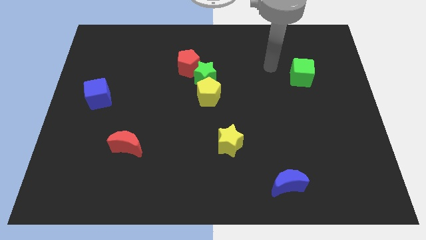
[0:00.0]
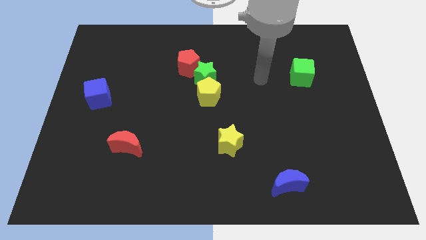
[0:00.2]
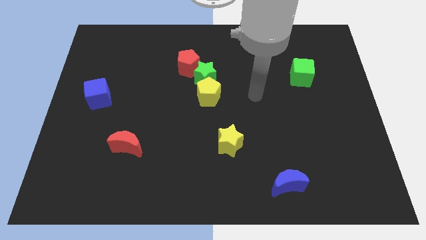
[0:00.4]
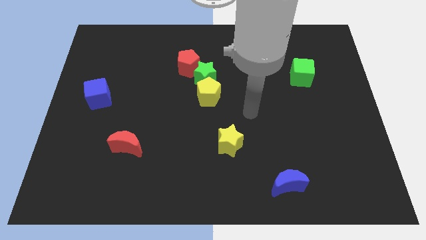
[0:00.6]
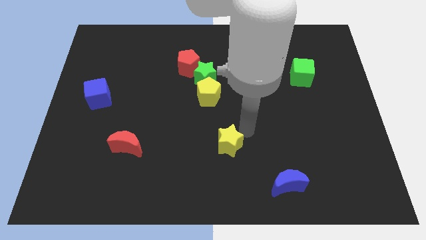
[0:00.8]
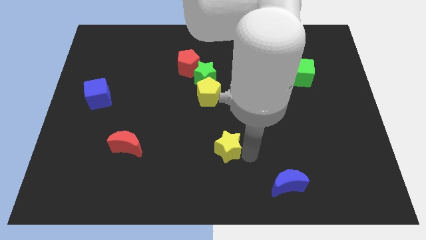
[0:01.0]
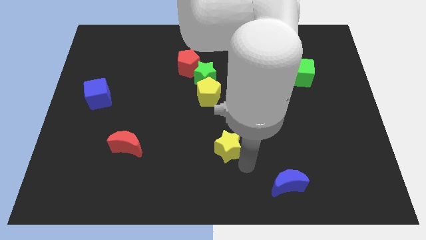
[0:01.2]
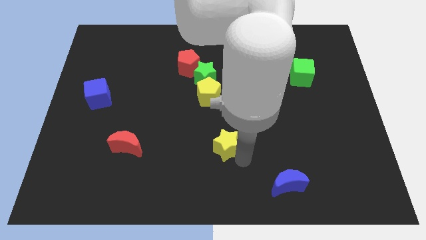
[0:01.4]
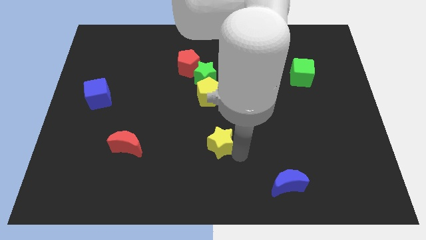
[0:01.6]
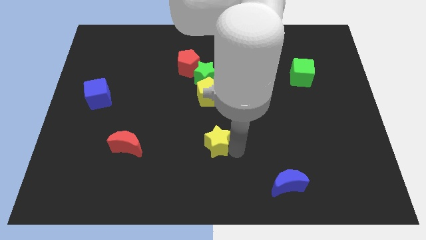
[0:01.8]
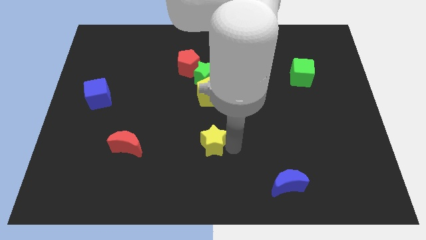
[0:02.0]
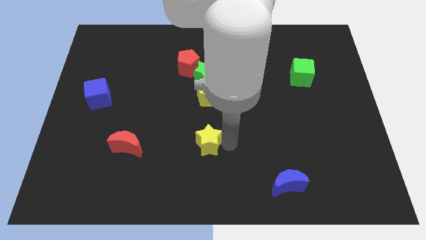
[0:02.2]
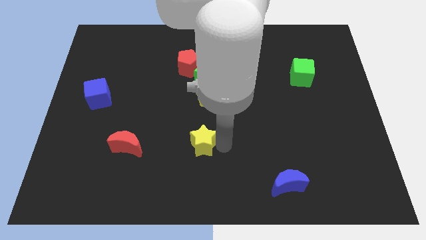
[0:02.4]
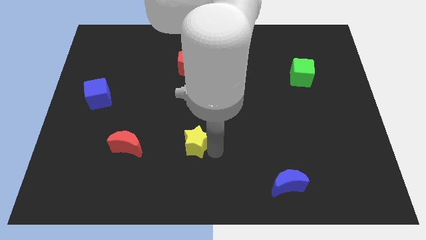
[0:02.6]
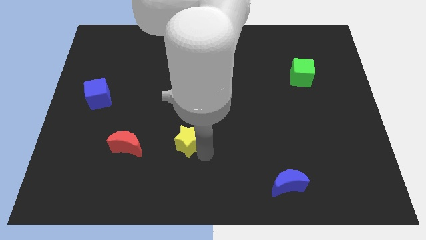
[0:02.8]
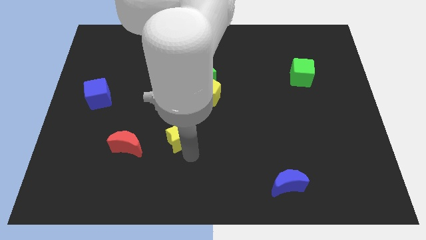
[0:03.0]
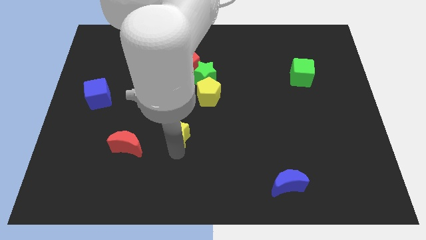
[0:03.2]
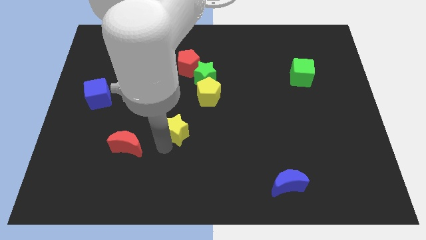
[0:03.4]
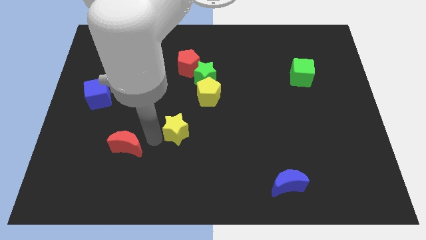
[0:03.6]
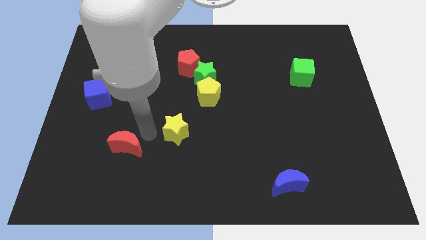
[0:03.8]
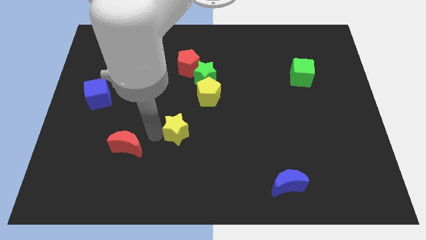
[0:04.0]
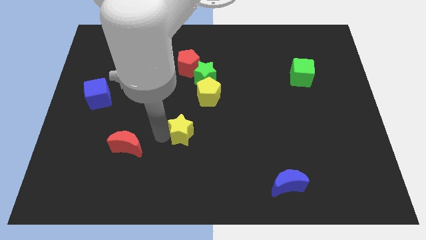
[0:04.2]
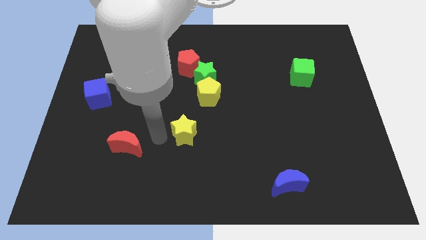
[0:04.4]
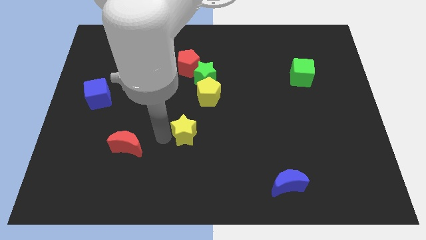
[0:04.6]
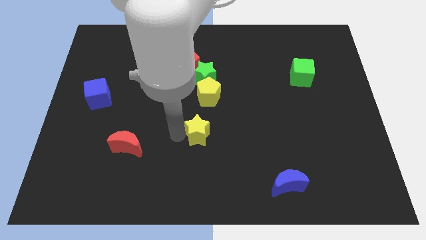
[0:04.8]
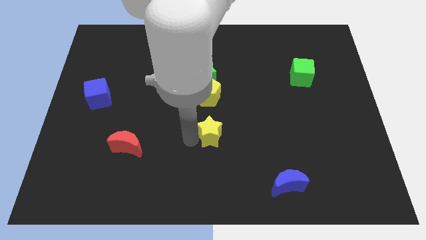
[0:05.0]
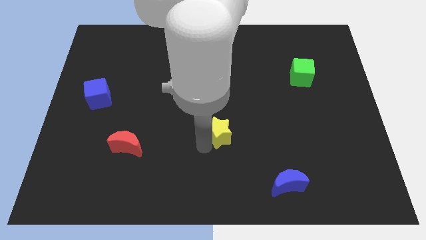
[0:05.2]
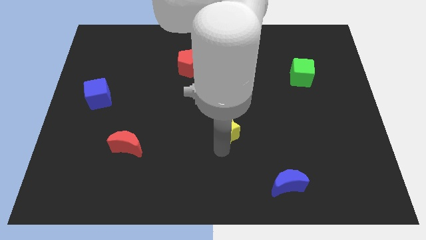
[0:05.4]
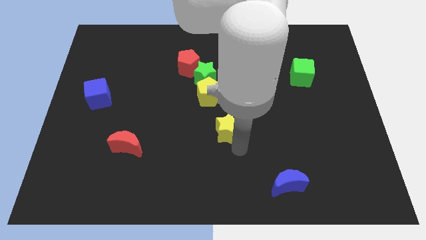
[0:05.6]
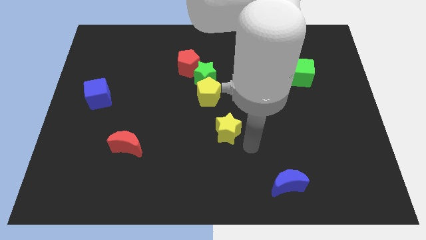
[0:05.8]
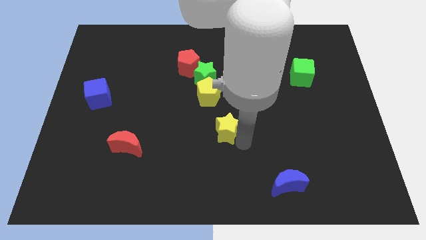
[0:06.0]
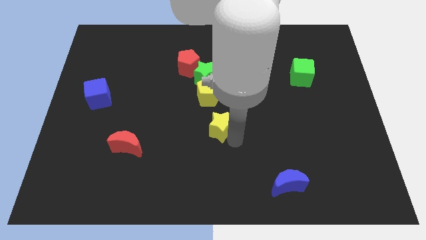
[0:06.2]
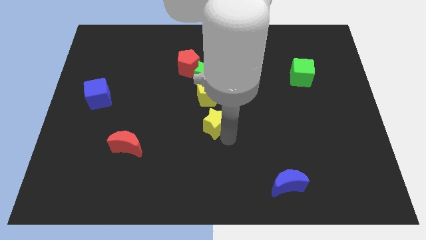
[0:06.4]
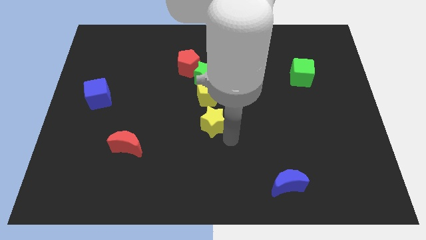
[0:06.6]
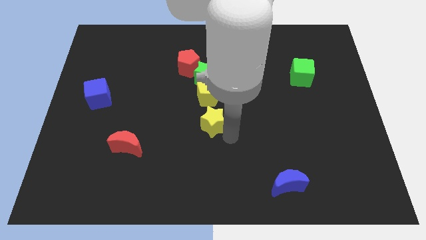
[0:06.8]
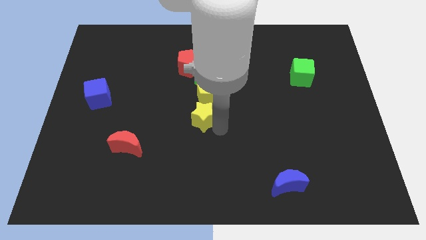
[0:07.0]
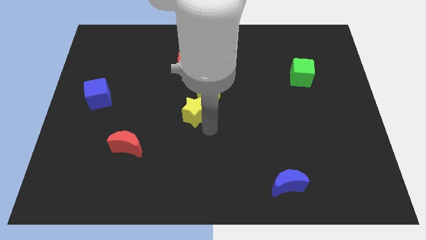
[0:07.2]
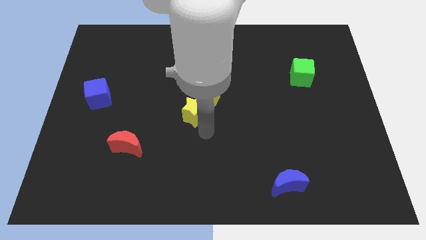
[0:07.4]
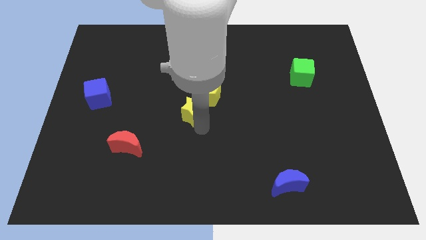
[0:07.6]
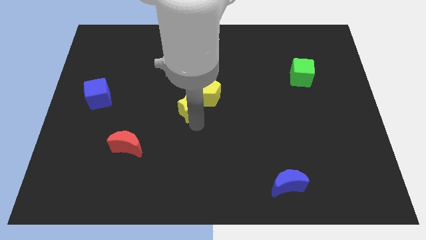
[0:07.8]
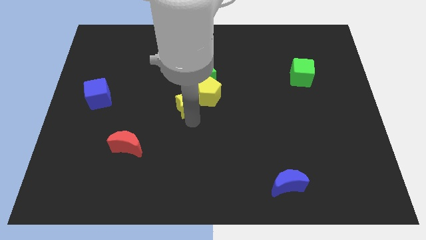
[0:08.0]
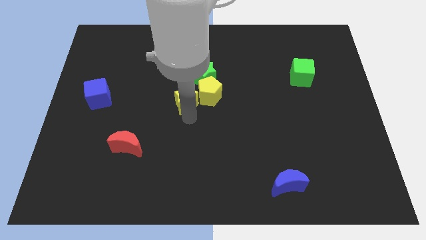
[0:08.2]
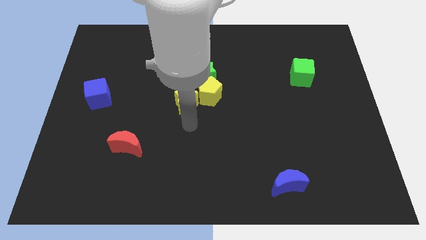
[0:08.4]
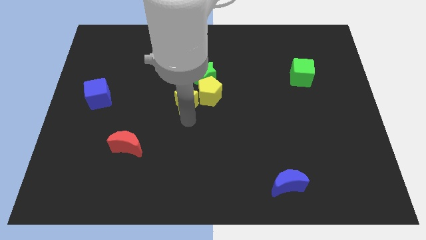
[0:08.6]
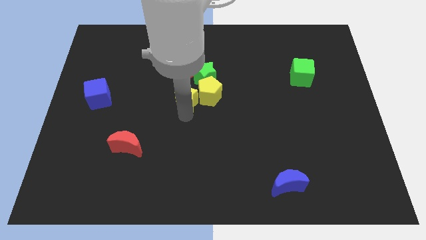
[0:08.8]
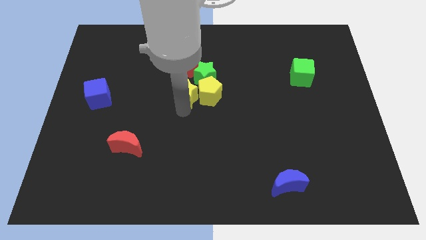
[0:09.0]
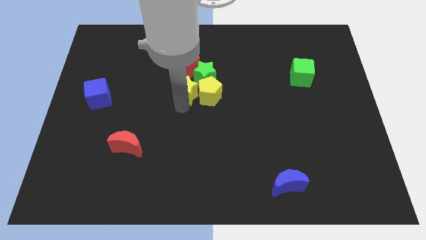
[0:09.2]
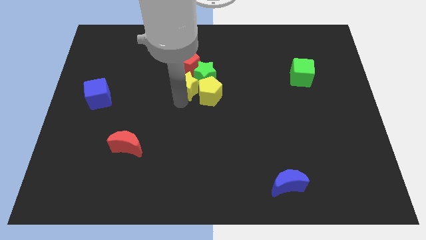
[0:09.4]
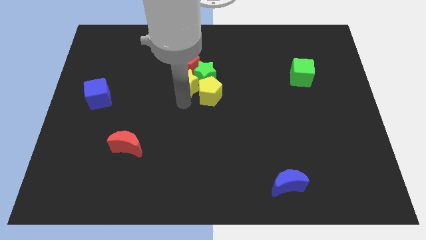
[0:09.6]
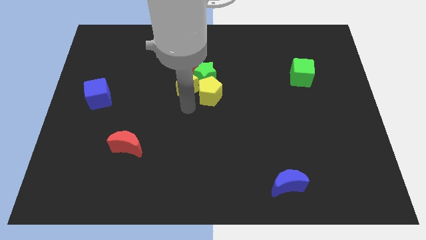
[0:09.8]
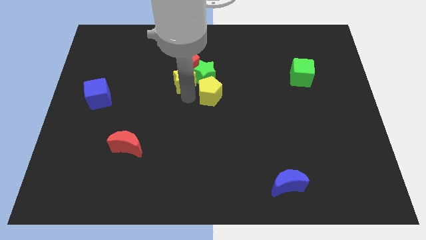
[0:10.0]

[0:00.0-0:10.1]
push the yellow star next to the red pentagon

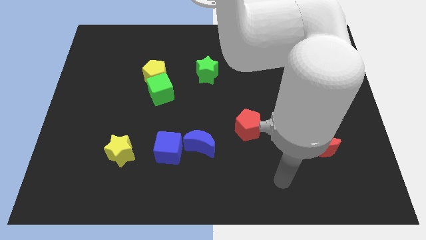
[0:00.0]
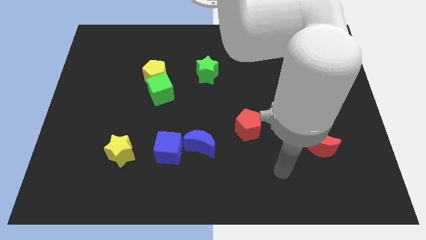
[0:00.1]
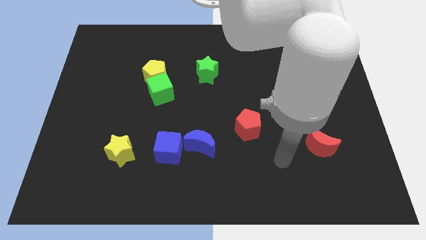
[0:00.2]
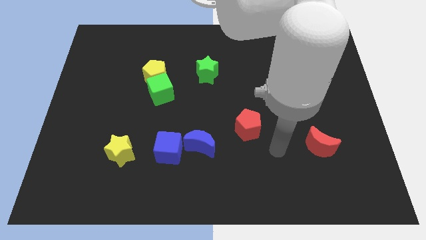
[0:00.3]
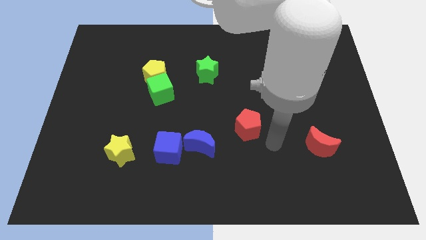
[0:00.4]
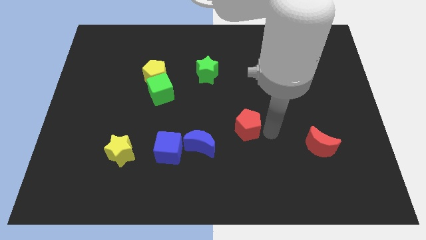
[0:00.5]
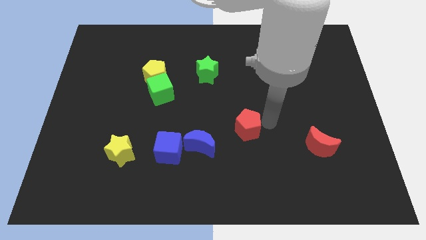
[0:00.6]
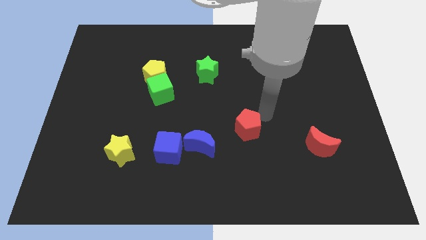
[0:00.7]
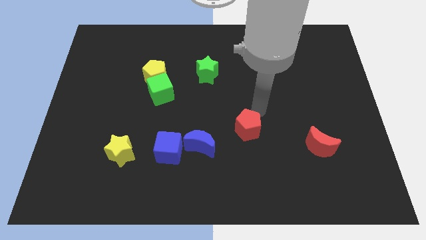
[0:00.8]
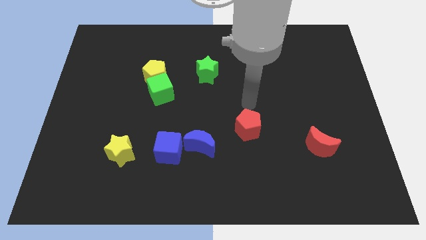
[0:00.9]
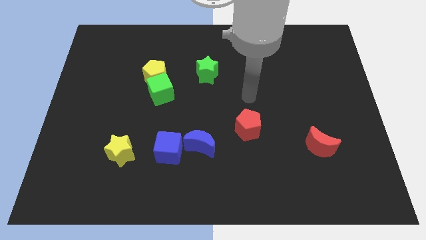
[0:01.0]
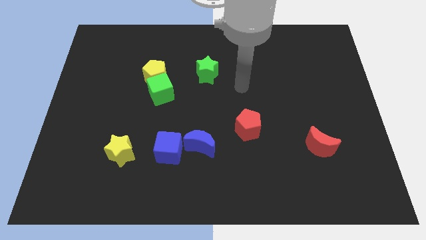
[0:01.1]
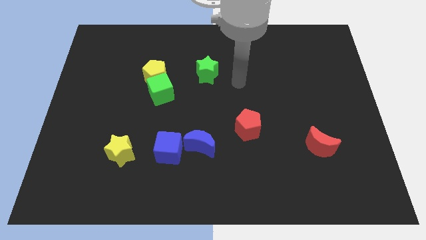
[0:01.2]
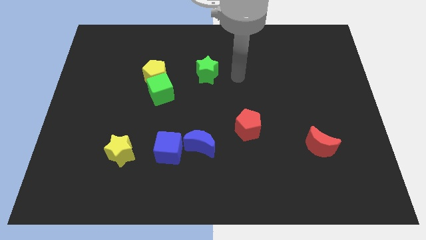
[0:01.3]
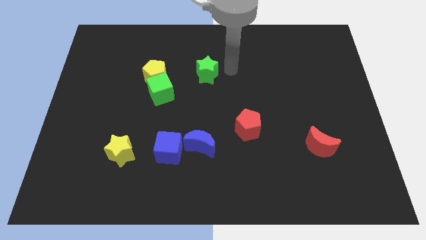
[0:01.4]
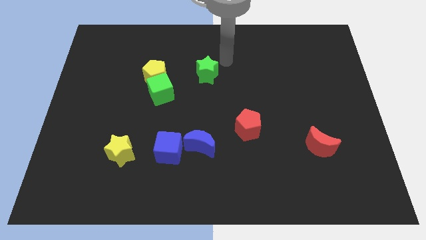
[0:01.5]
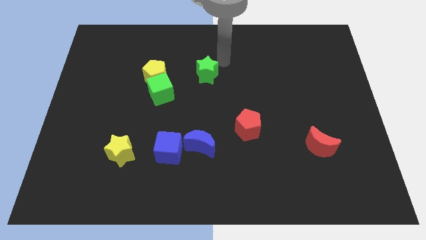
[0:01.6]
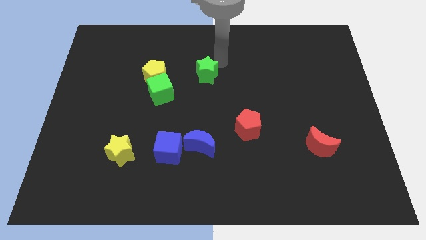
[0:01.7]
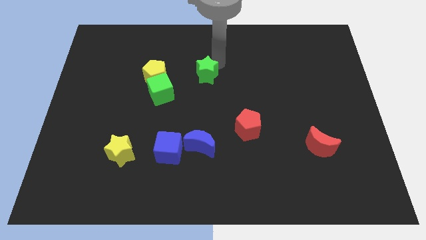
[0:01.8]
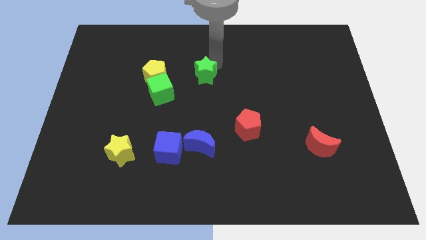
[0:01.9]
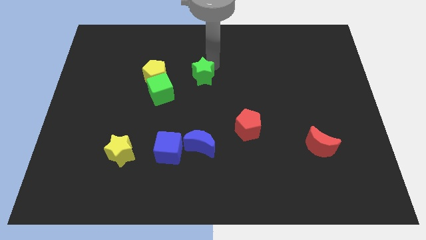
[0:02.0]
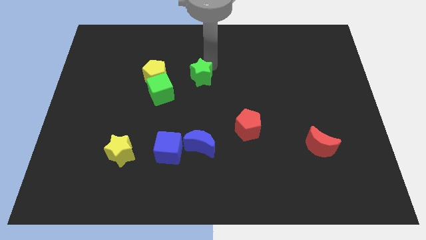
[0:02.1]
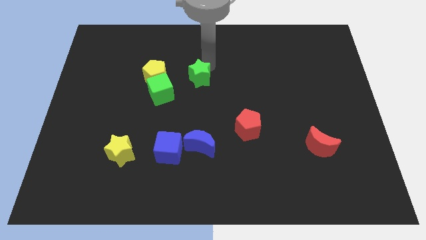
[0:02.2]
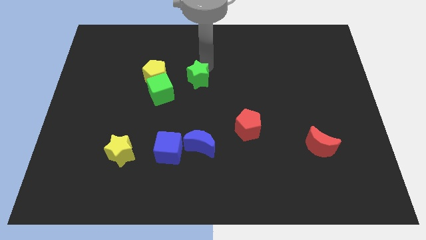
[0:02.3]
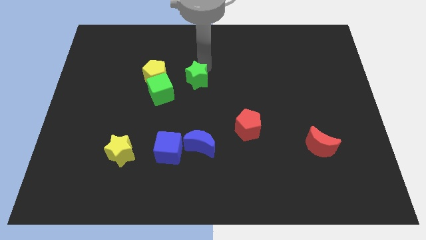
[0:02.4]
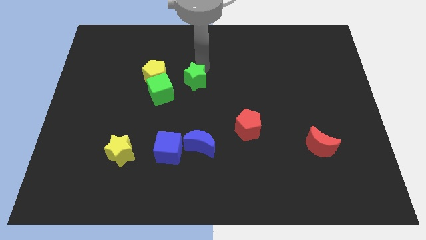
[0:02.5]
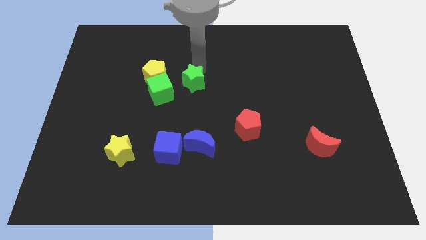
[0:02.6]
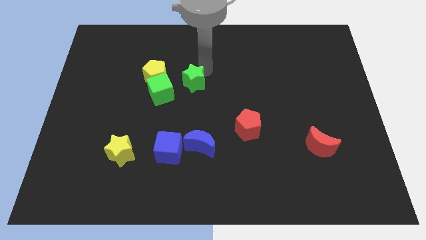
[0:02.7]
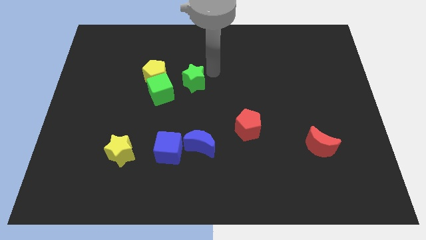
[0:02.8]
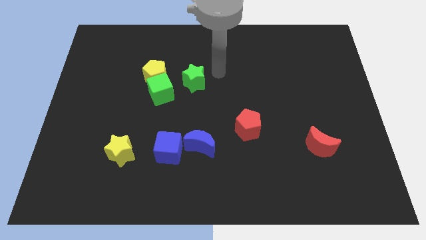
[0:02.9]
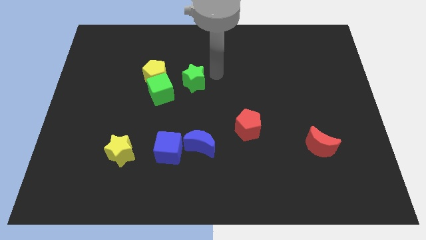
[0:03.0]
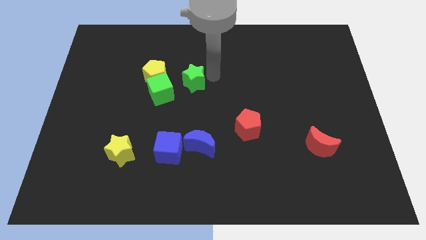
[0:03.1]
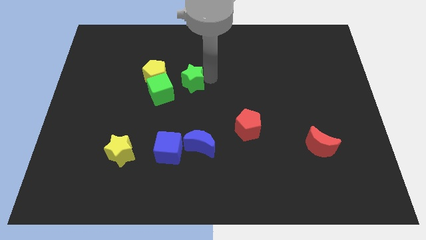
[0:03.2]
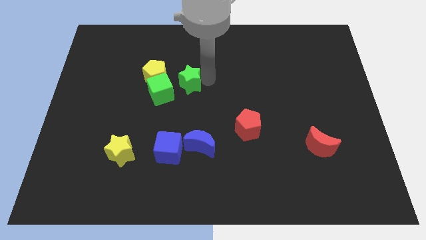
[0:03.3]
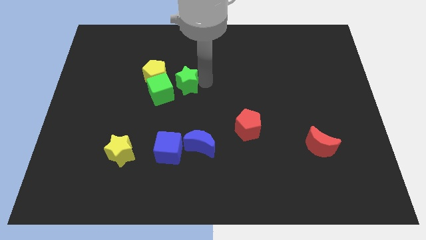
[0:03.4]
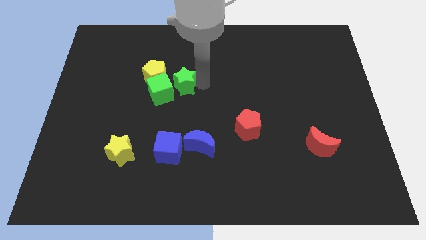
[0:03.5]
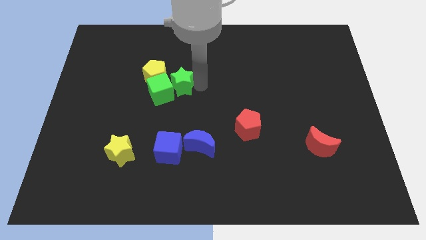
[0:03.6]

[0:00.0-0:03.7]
put the green star close to the green cube
